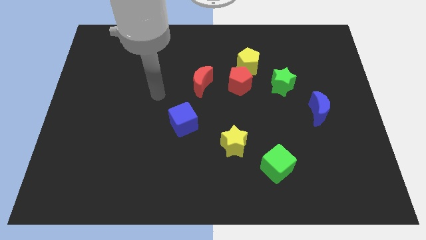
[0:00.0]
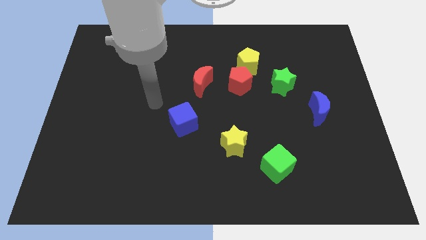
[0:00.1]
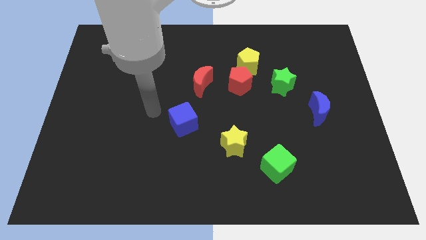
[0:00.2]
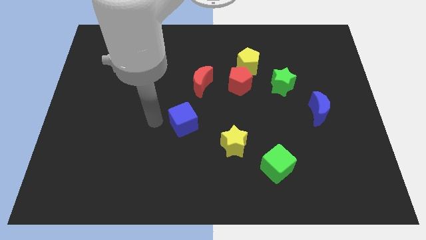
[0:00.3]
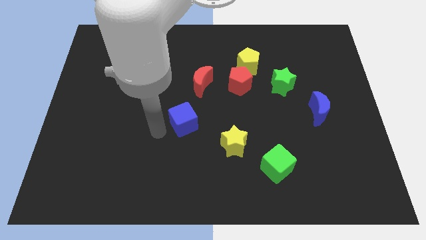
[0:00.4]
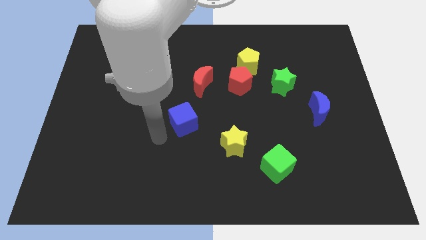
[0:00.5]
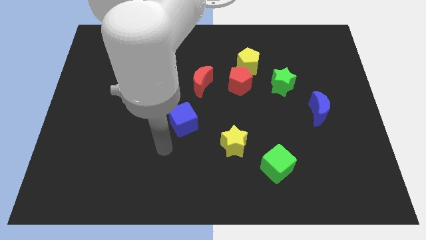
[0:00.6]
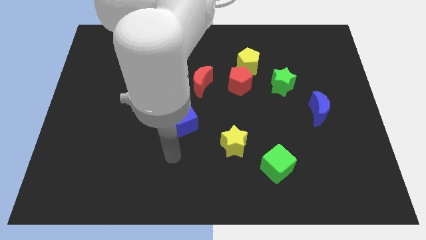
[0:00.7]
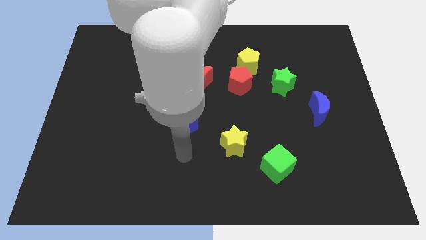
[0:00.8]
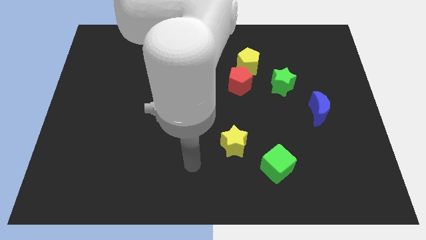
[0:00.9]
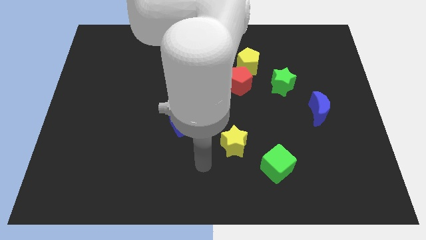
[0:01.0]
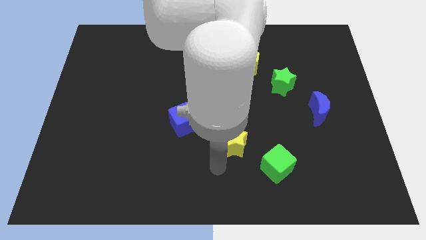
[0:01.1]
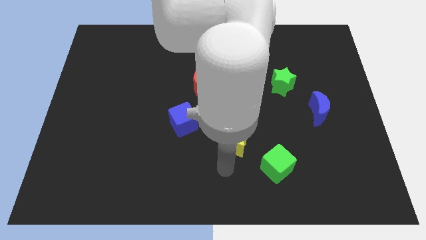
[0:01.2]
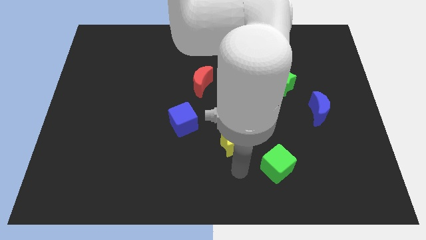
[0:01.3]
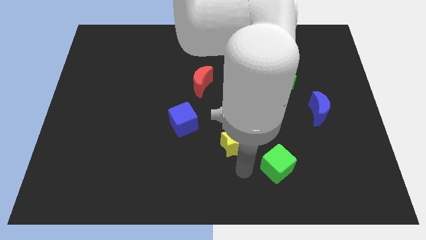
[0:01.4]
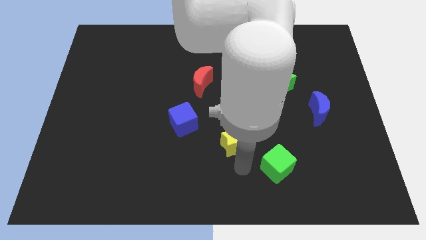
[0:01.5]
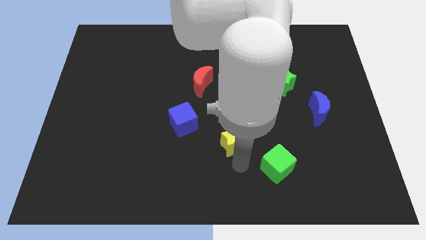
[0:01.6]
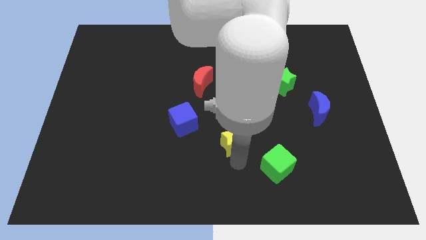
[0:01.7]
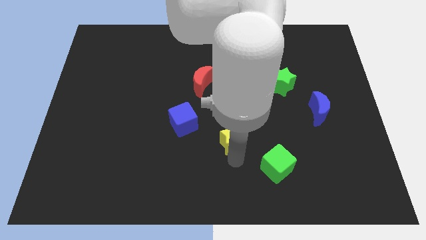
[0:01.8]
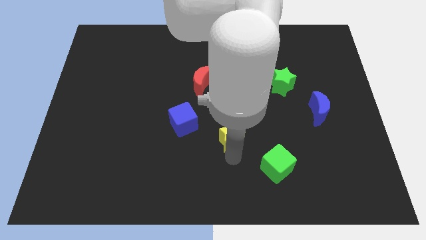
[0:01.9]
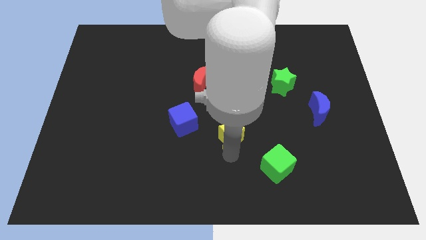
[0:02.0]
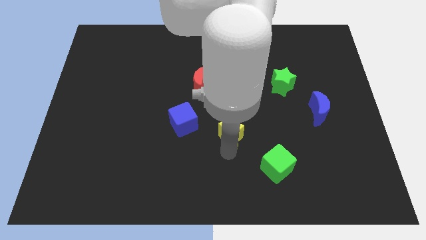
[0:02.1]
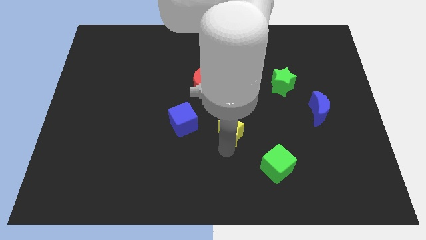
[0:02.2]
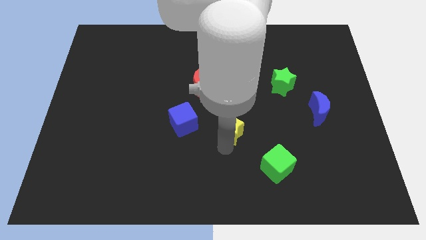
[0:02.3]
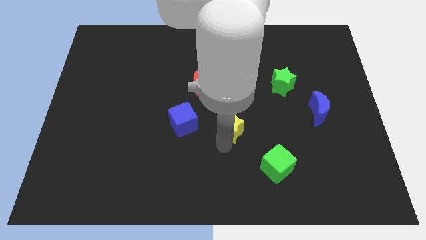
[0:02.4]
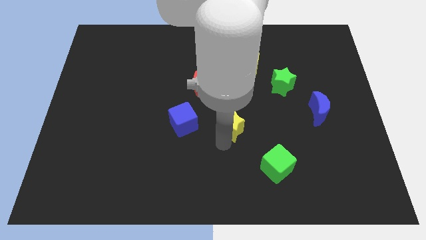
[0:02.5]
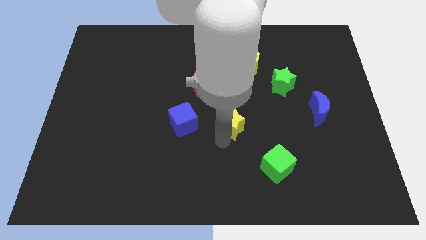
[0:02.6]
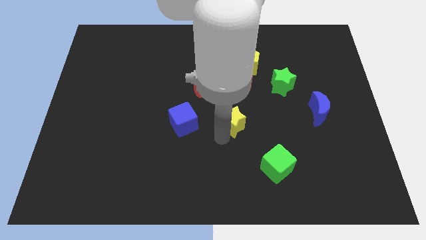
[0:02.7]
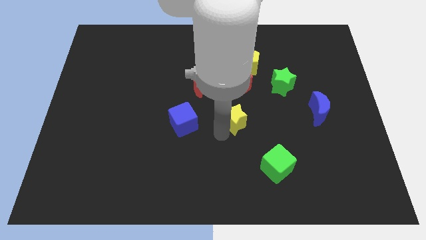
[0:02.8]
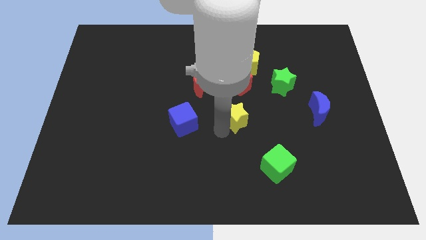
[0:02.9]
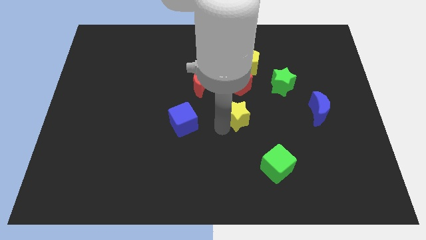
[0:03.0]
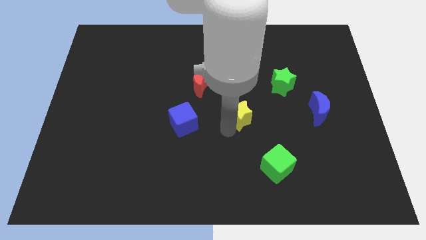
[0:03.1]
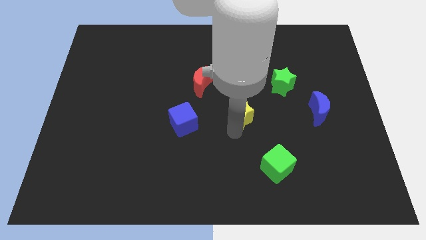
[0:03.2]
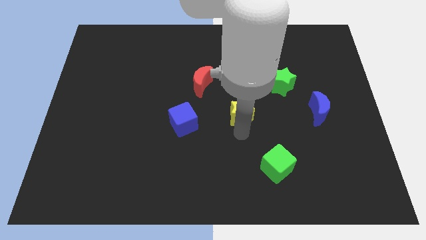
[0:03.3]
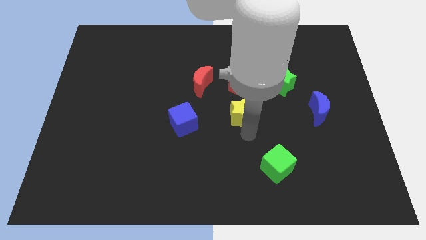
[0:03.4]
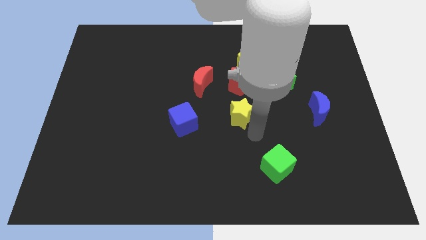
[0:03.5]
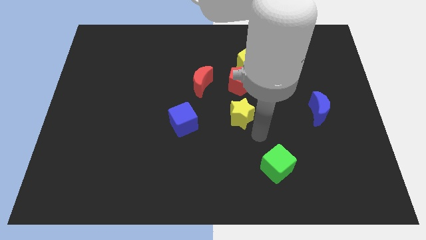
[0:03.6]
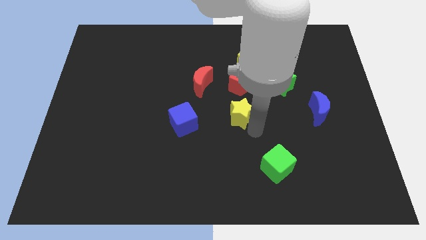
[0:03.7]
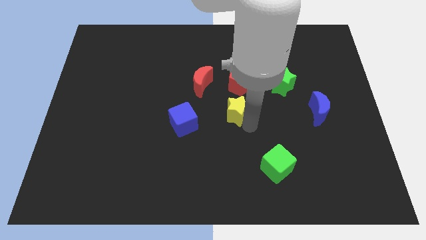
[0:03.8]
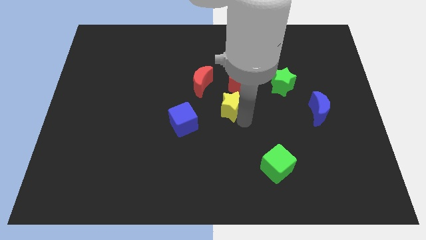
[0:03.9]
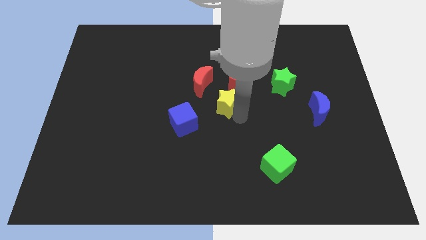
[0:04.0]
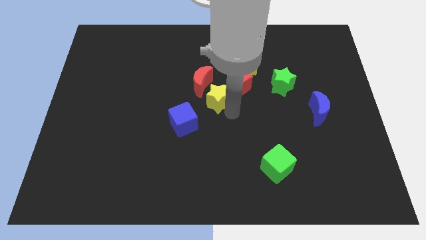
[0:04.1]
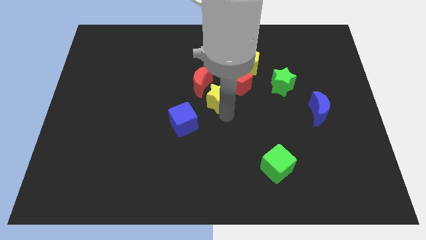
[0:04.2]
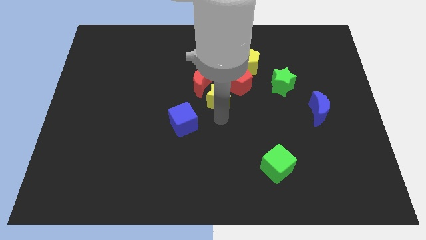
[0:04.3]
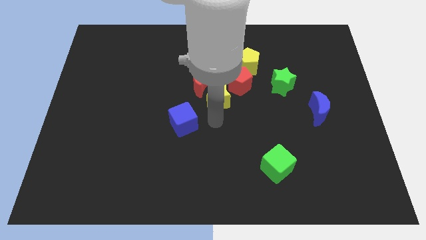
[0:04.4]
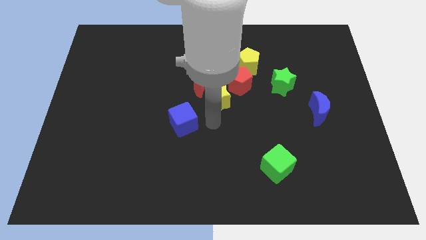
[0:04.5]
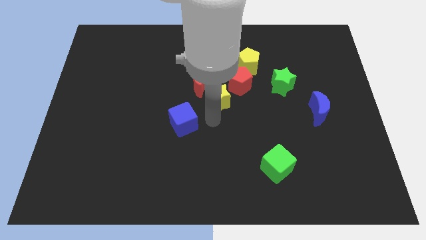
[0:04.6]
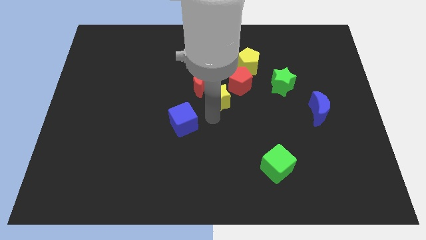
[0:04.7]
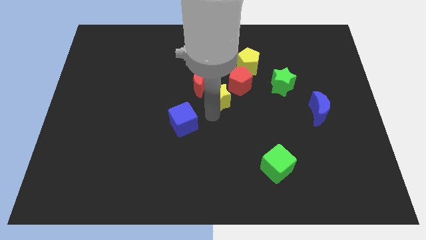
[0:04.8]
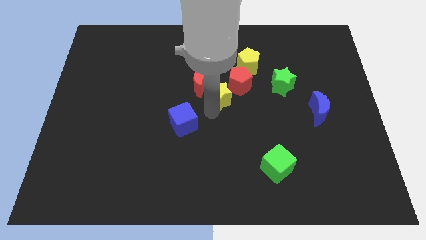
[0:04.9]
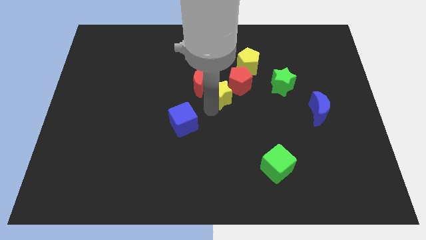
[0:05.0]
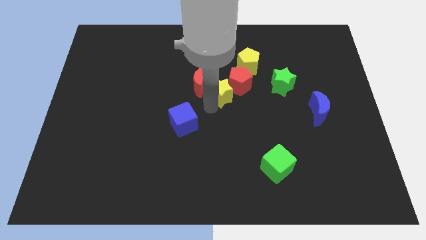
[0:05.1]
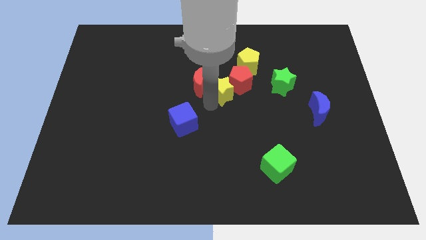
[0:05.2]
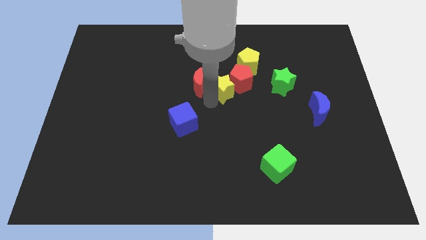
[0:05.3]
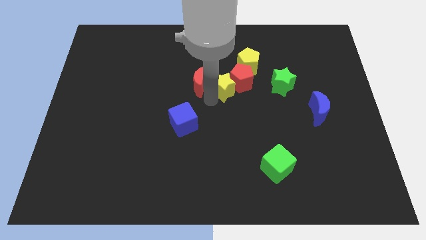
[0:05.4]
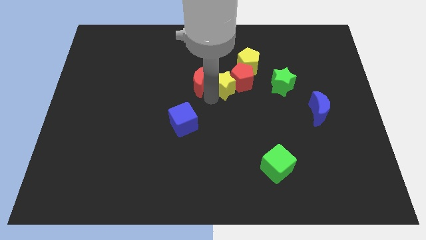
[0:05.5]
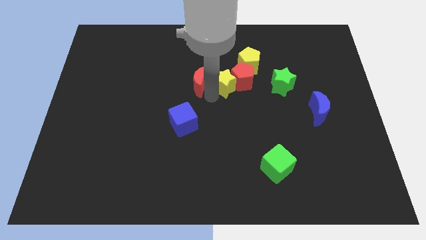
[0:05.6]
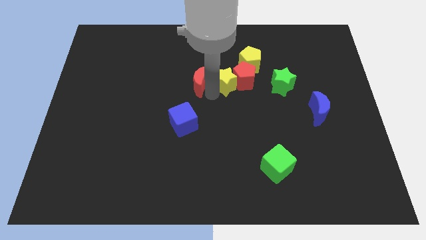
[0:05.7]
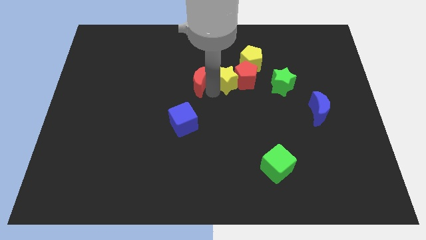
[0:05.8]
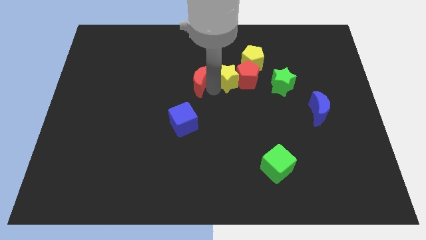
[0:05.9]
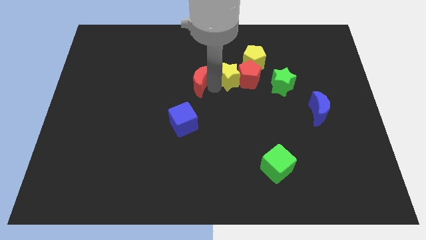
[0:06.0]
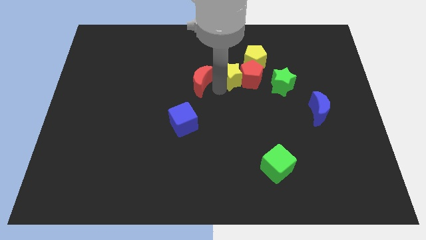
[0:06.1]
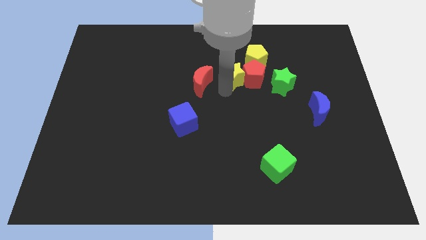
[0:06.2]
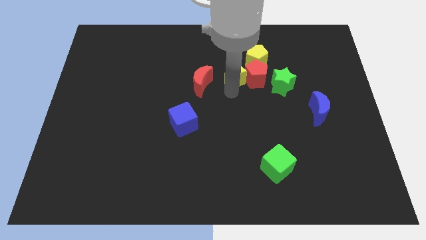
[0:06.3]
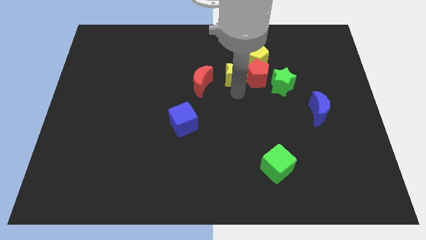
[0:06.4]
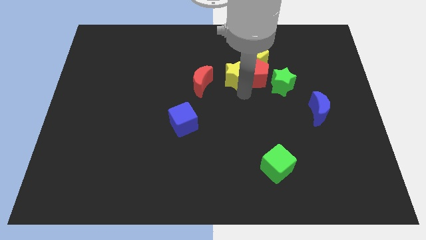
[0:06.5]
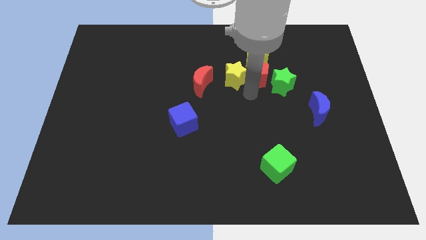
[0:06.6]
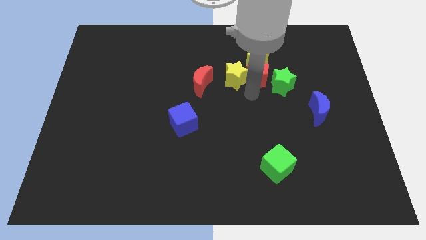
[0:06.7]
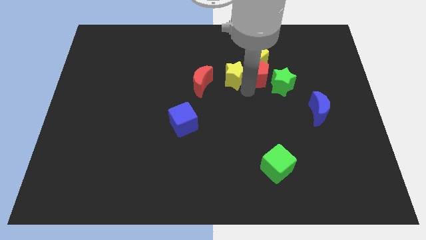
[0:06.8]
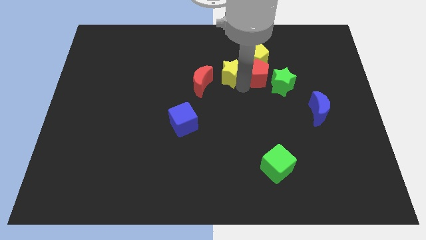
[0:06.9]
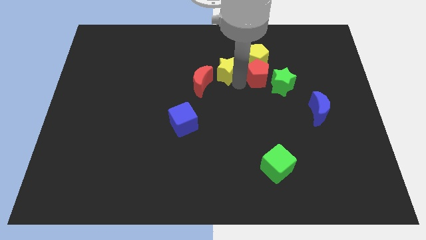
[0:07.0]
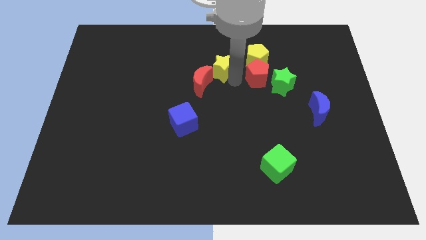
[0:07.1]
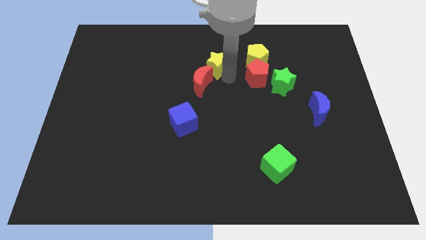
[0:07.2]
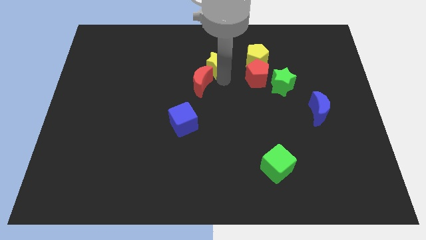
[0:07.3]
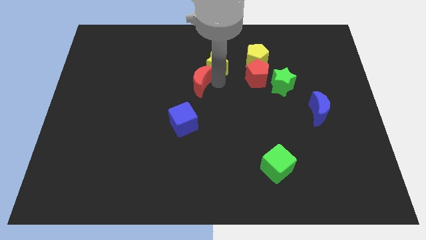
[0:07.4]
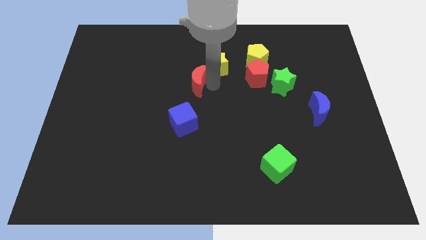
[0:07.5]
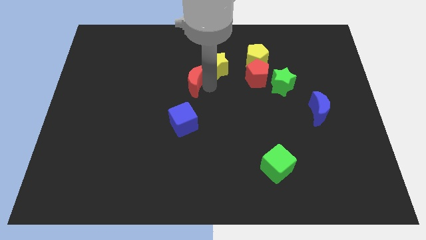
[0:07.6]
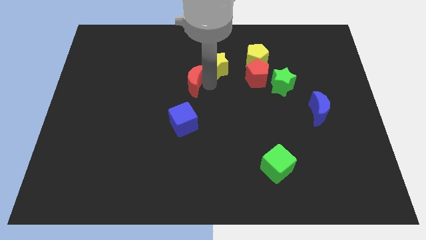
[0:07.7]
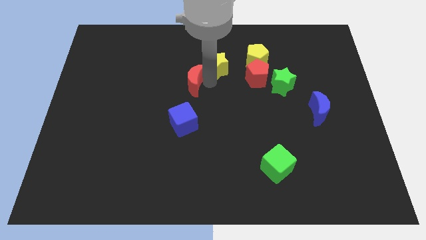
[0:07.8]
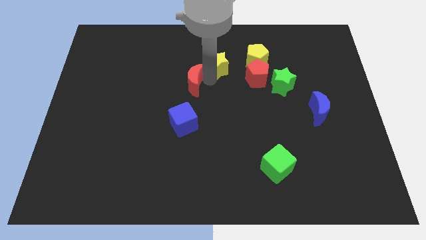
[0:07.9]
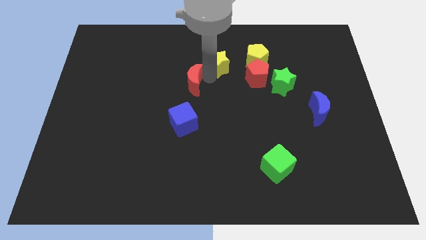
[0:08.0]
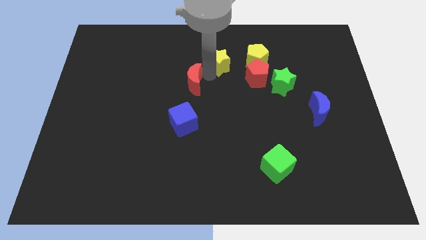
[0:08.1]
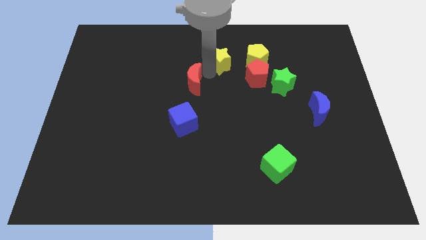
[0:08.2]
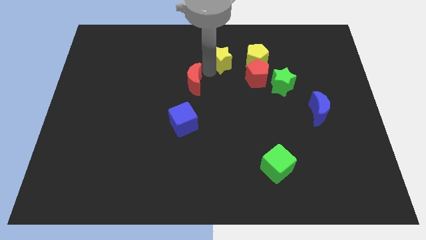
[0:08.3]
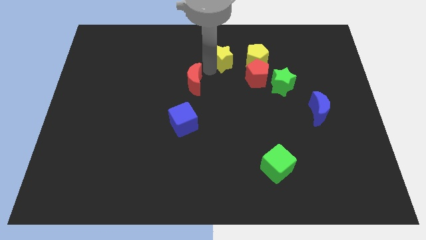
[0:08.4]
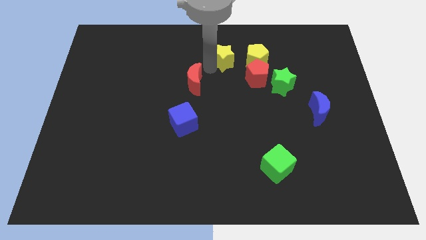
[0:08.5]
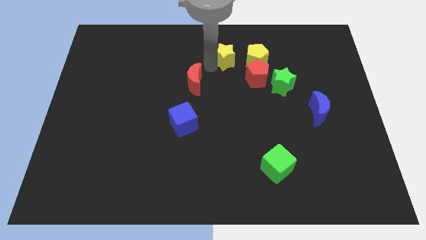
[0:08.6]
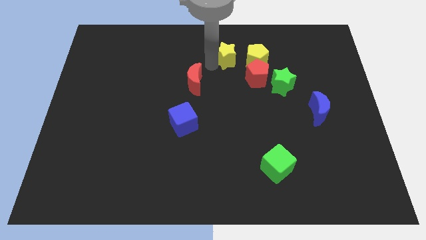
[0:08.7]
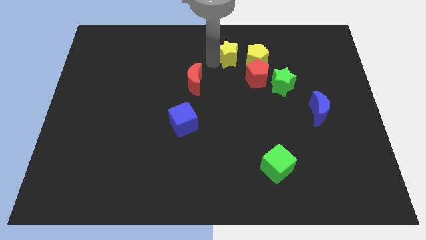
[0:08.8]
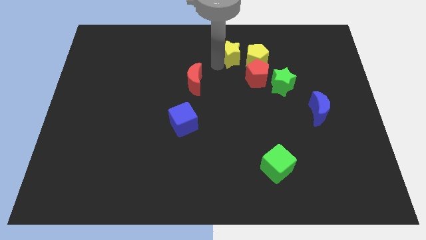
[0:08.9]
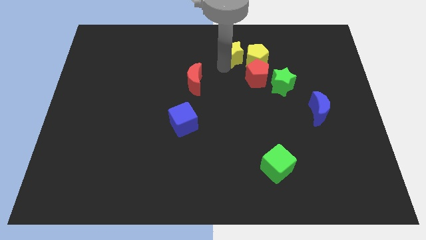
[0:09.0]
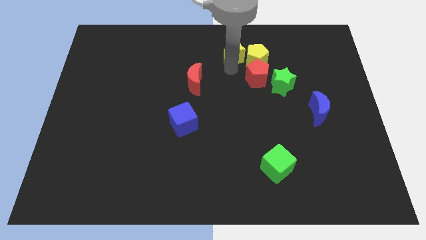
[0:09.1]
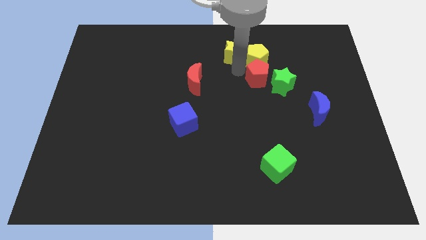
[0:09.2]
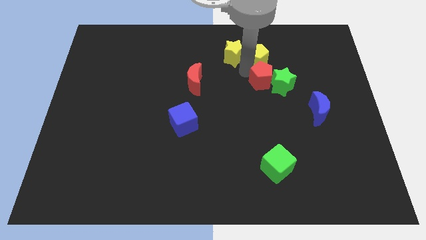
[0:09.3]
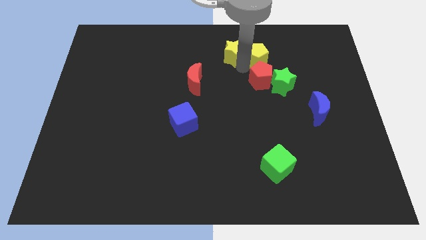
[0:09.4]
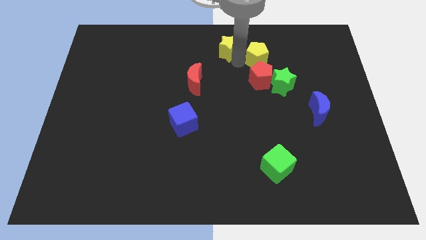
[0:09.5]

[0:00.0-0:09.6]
move the yellow star to the top side
